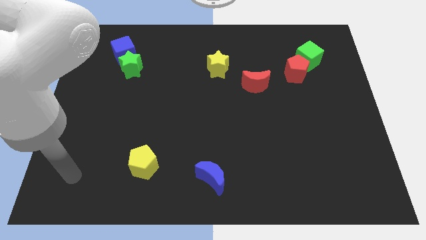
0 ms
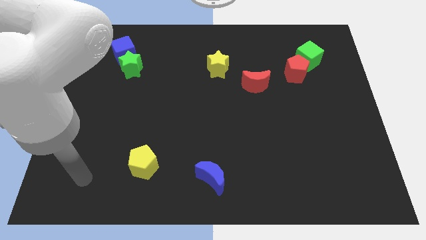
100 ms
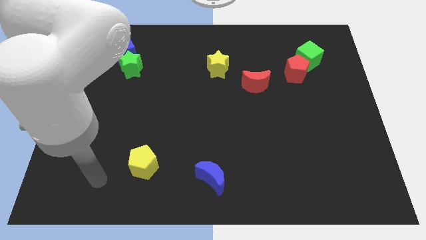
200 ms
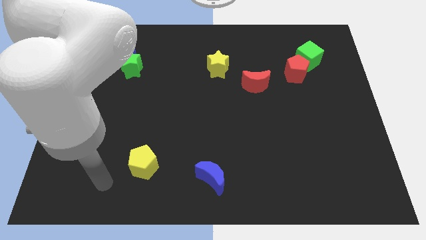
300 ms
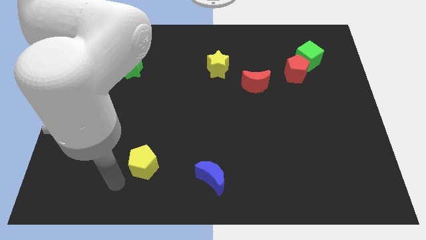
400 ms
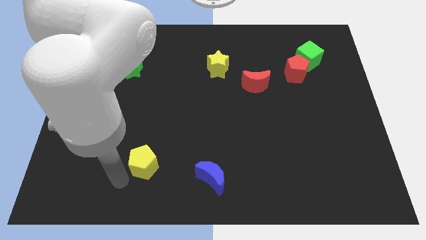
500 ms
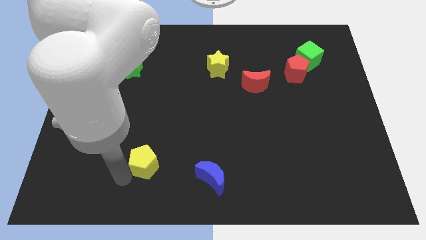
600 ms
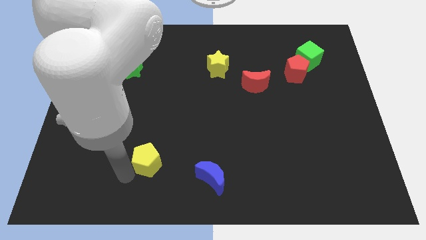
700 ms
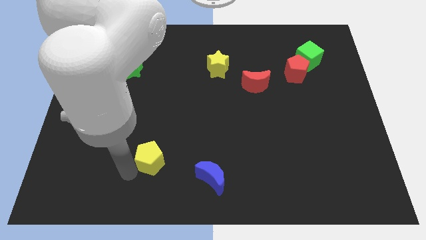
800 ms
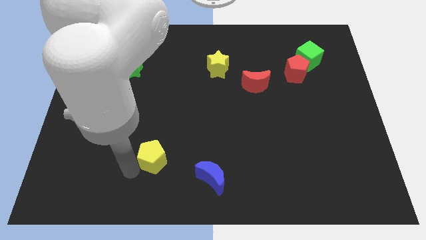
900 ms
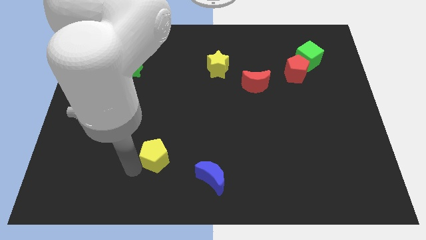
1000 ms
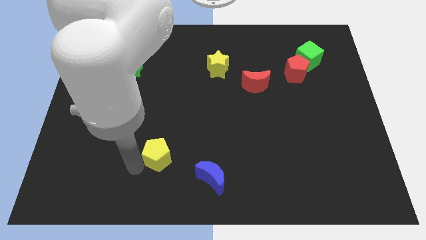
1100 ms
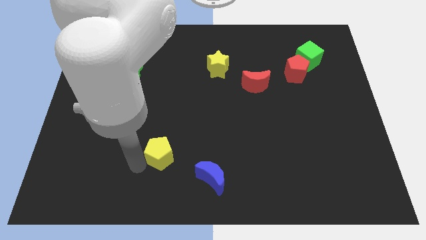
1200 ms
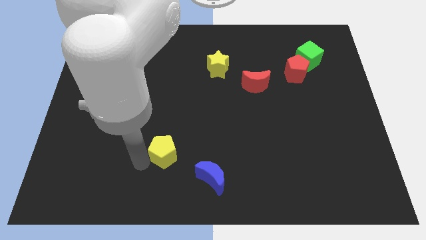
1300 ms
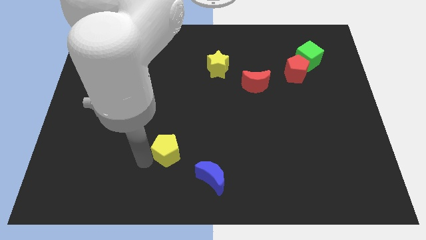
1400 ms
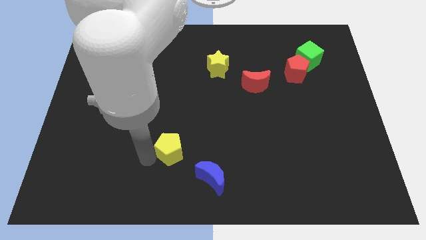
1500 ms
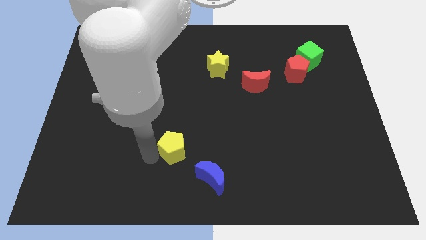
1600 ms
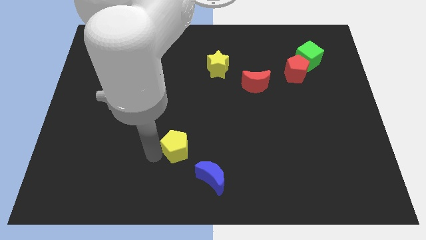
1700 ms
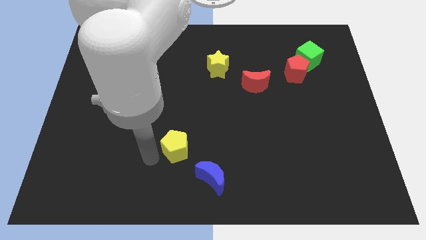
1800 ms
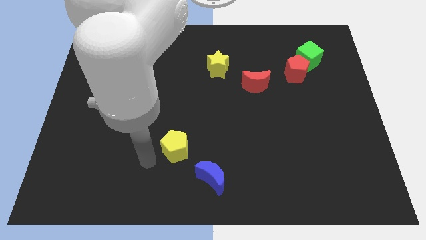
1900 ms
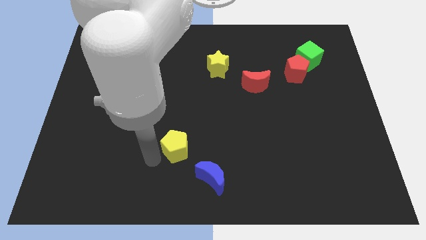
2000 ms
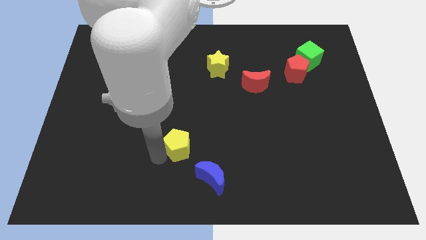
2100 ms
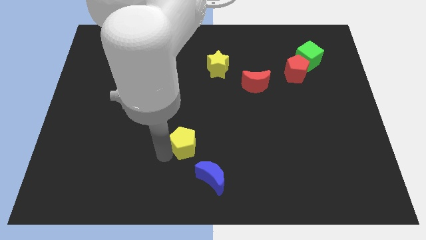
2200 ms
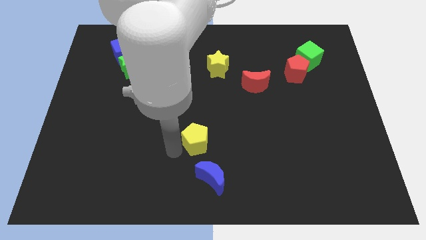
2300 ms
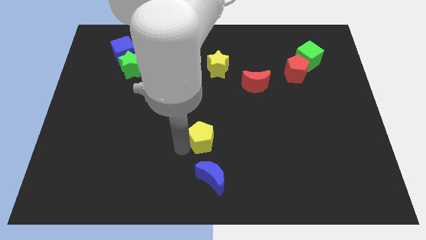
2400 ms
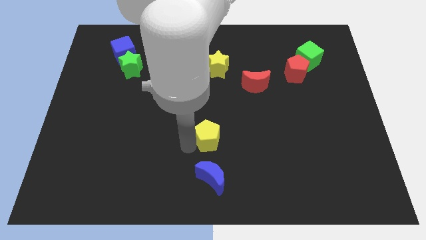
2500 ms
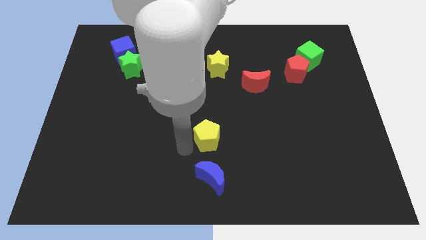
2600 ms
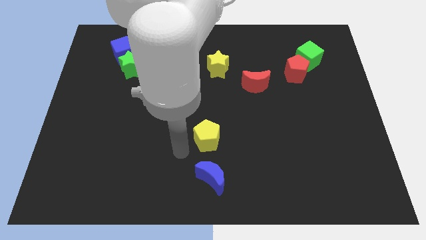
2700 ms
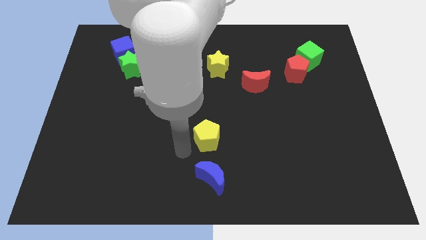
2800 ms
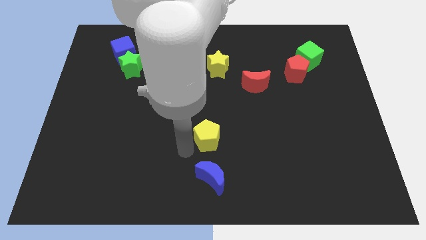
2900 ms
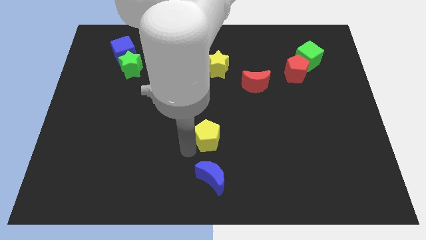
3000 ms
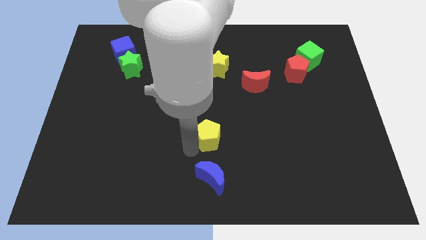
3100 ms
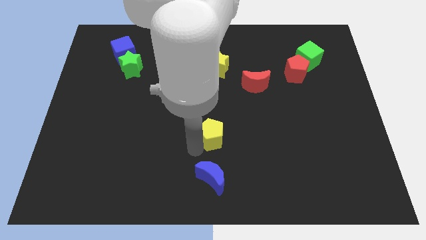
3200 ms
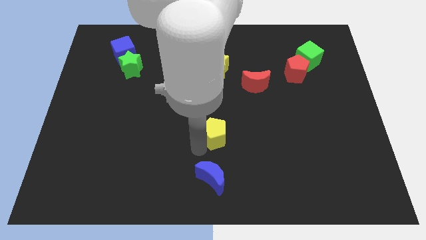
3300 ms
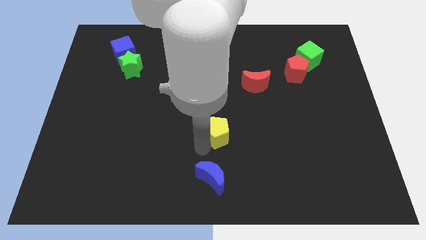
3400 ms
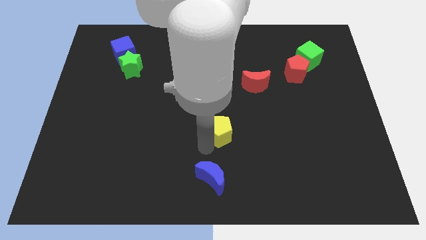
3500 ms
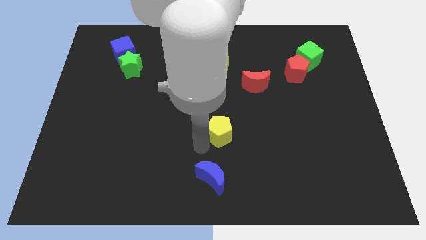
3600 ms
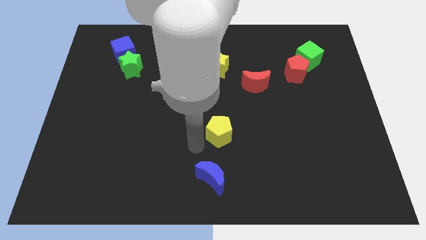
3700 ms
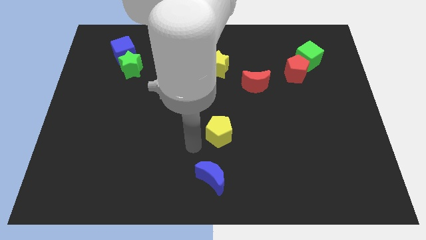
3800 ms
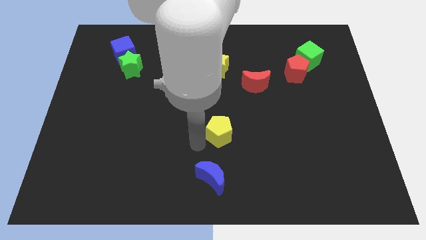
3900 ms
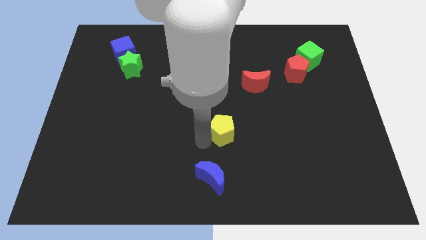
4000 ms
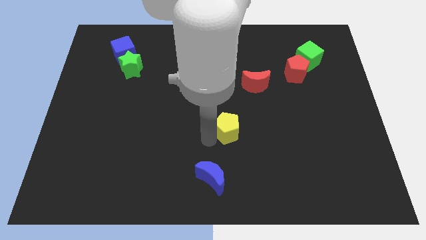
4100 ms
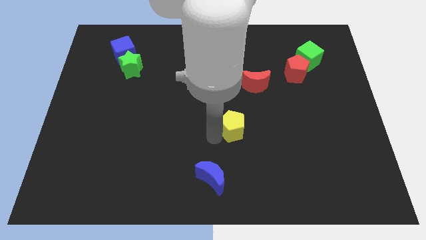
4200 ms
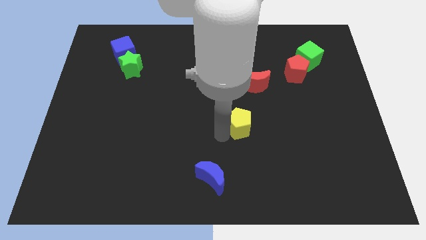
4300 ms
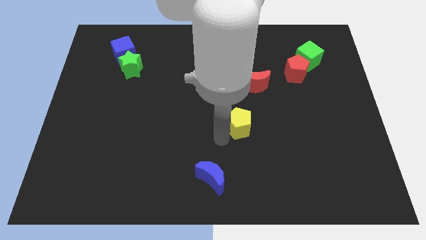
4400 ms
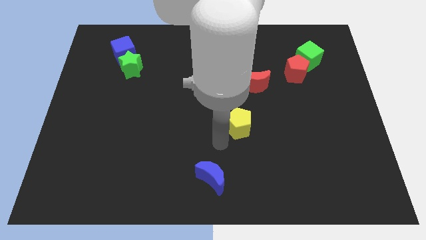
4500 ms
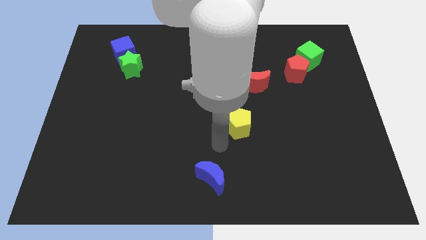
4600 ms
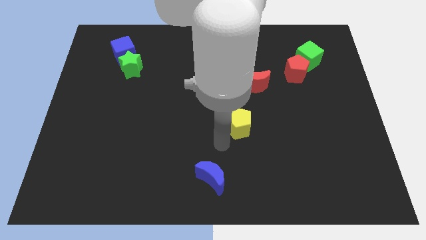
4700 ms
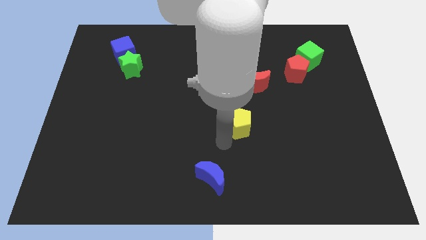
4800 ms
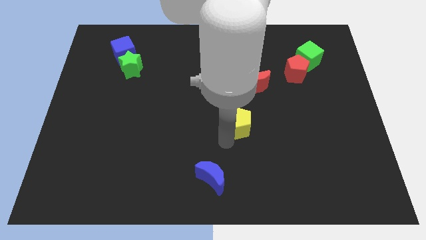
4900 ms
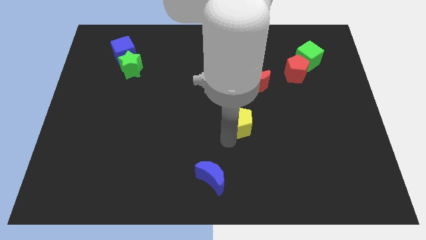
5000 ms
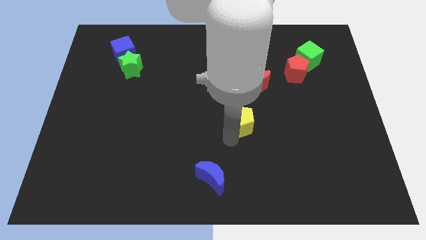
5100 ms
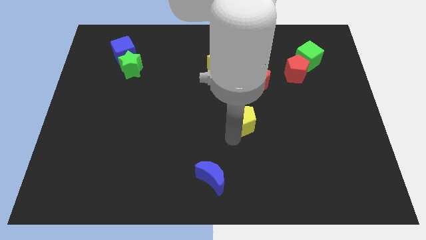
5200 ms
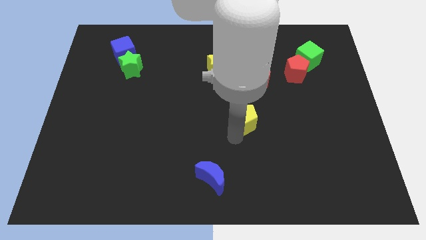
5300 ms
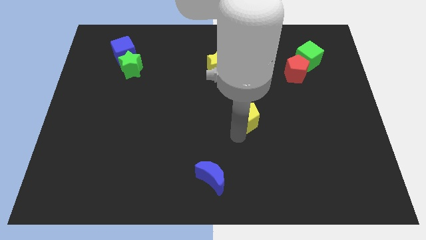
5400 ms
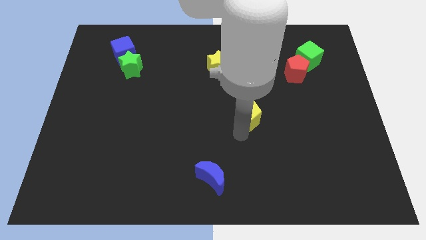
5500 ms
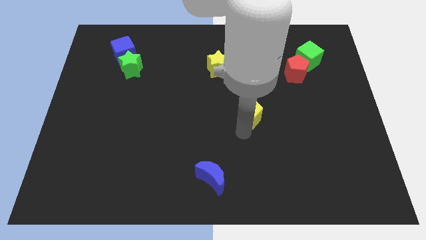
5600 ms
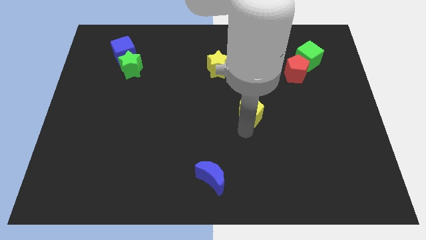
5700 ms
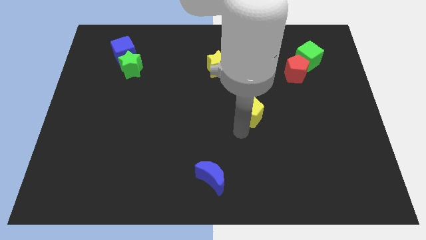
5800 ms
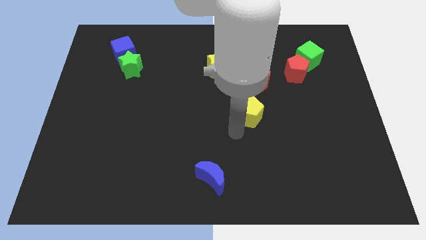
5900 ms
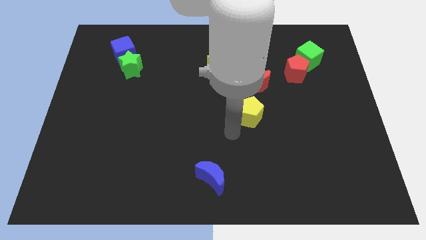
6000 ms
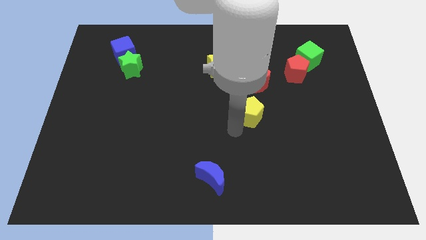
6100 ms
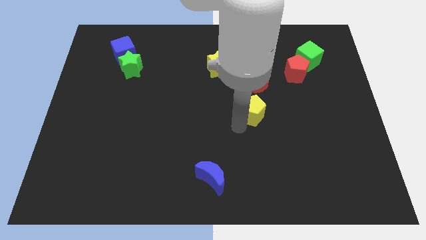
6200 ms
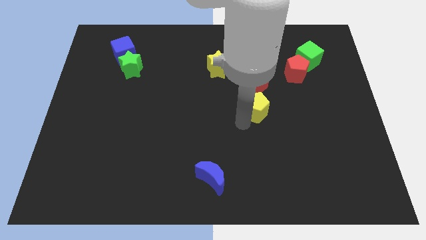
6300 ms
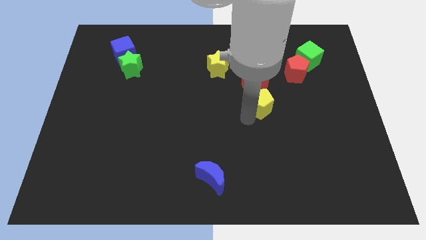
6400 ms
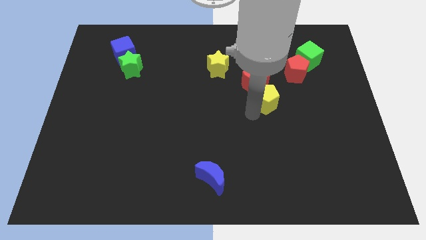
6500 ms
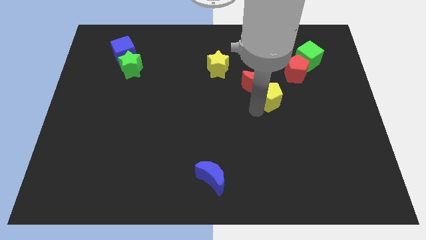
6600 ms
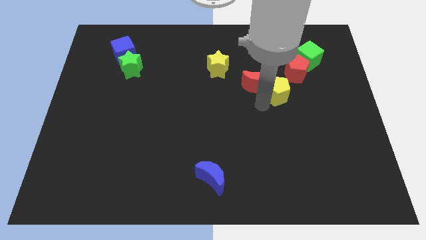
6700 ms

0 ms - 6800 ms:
put the yellow pentagon to the right of the red moon

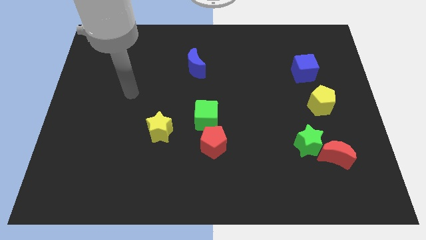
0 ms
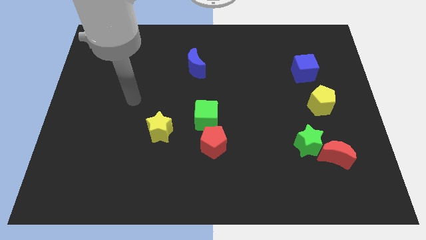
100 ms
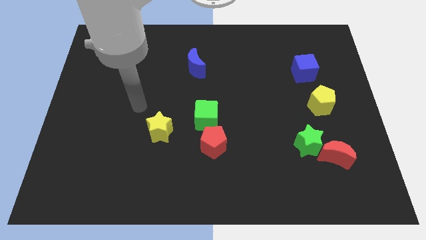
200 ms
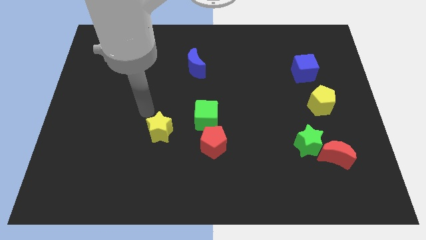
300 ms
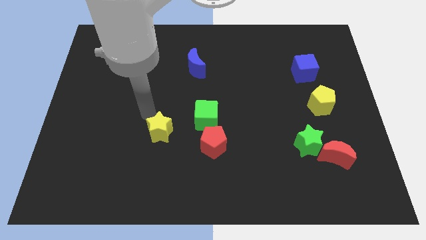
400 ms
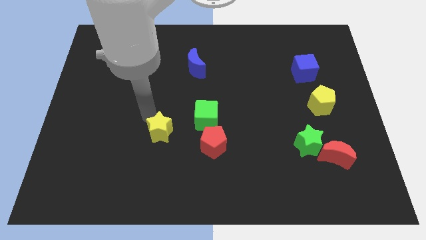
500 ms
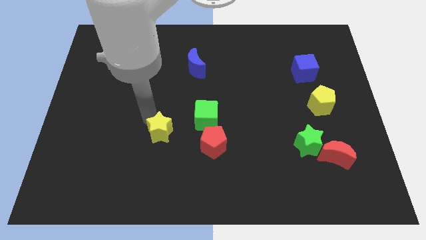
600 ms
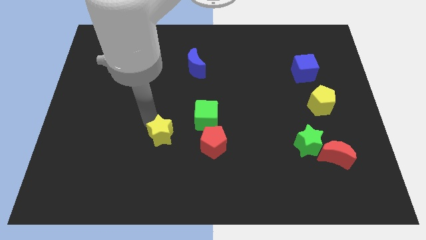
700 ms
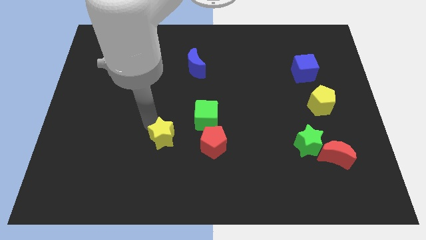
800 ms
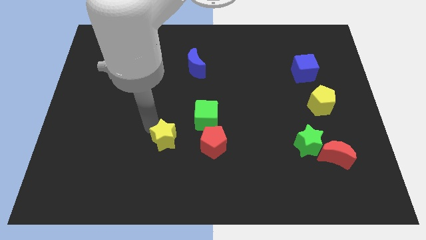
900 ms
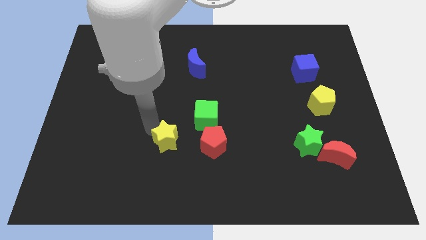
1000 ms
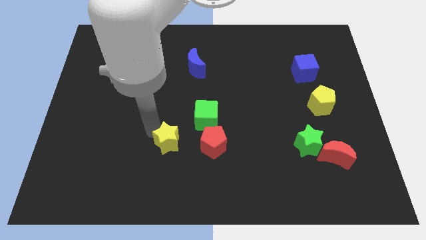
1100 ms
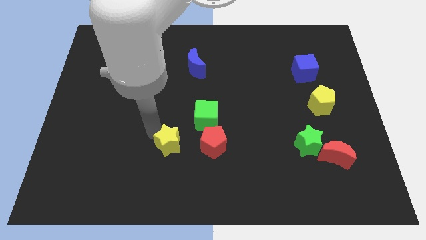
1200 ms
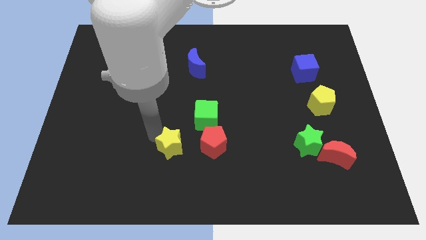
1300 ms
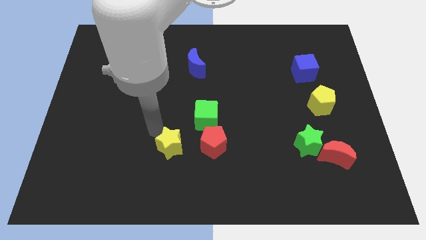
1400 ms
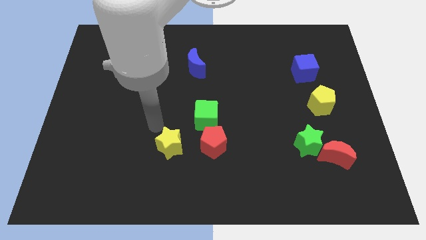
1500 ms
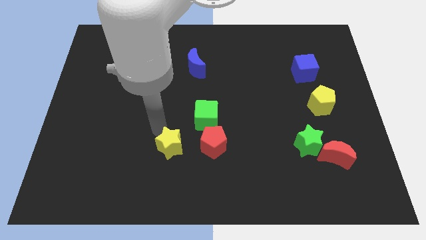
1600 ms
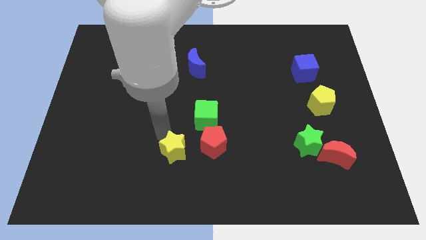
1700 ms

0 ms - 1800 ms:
slide the yellow star to the bottom left side of the red pentagon
